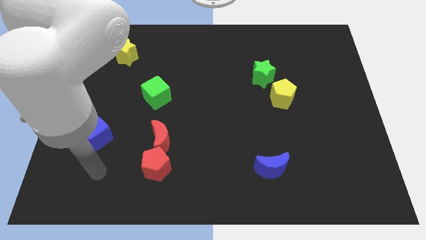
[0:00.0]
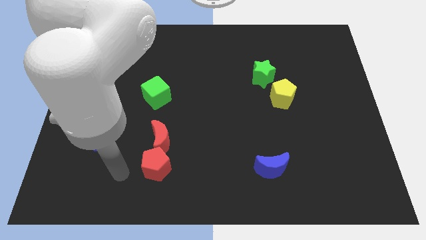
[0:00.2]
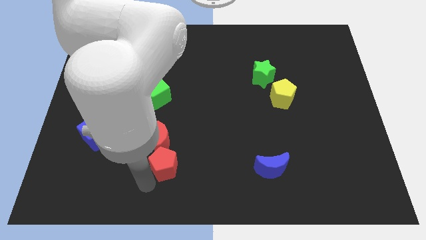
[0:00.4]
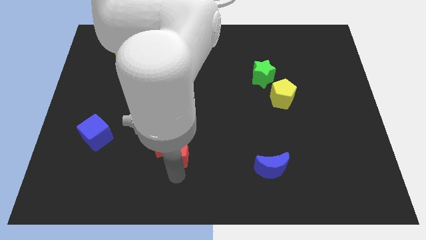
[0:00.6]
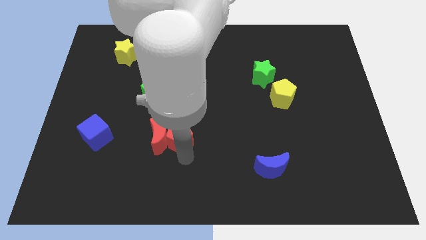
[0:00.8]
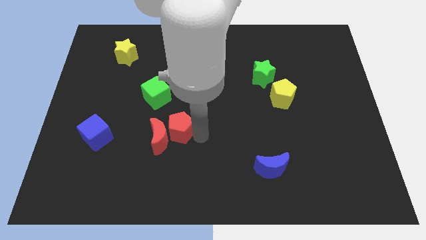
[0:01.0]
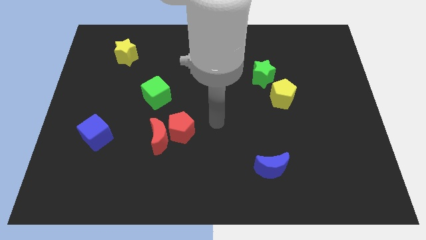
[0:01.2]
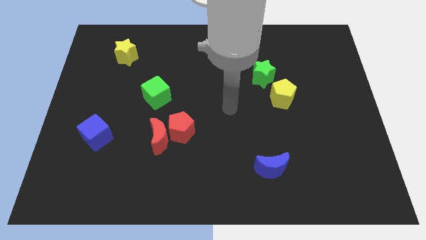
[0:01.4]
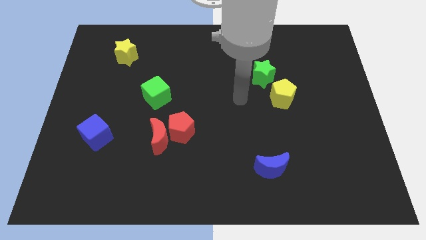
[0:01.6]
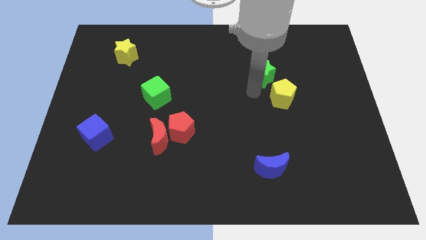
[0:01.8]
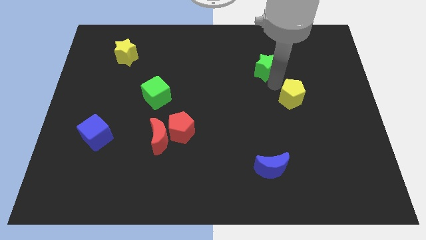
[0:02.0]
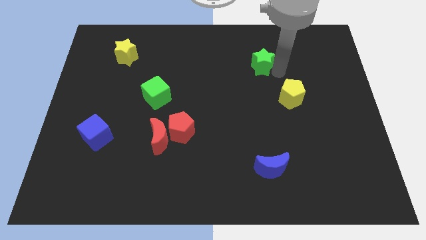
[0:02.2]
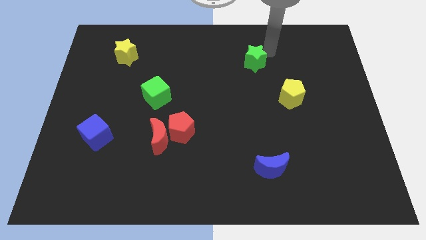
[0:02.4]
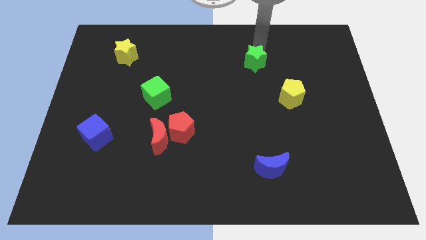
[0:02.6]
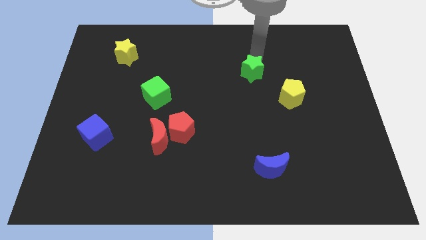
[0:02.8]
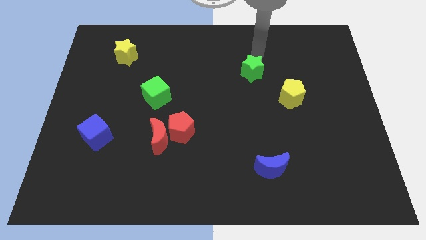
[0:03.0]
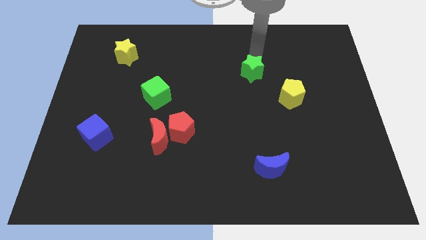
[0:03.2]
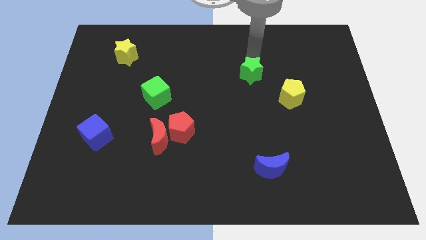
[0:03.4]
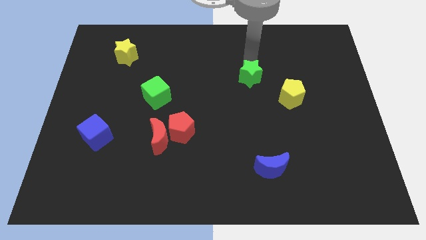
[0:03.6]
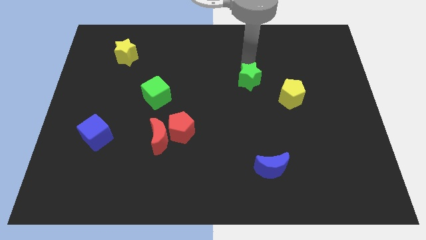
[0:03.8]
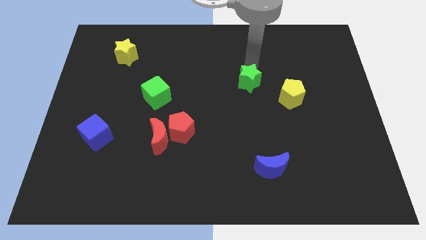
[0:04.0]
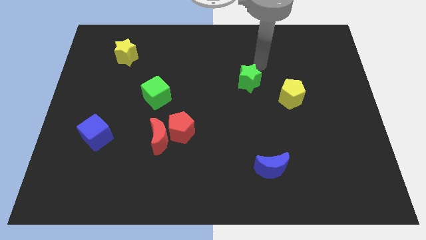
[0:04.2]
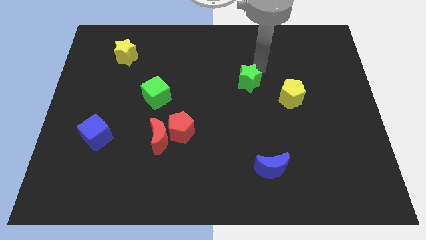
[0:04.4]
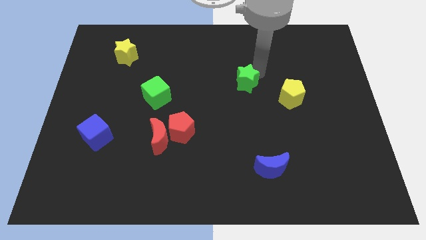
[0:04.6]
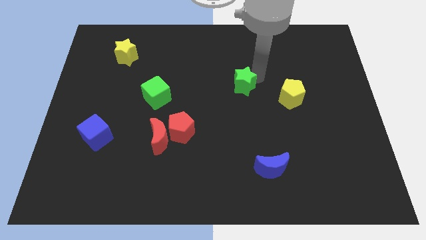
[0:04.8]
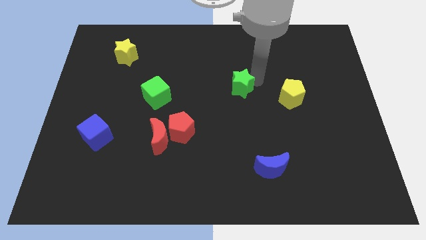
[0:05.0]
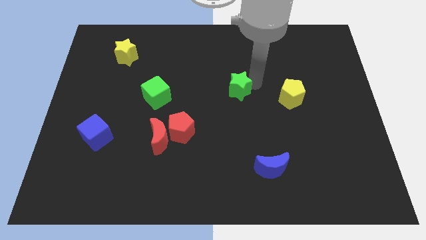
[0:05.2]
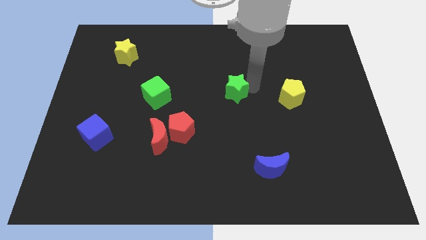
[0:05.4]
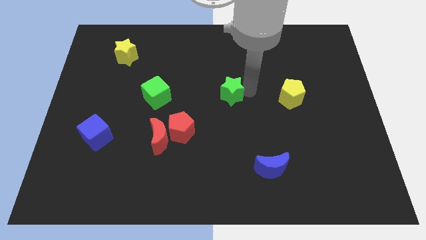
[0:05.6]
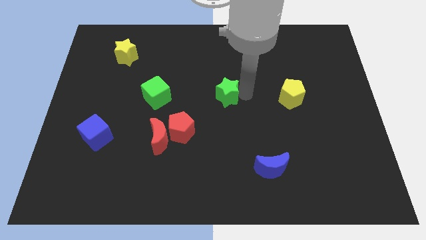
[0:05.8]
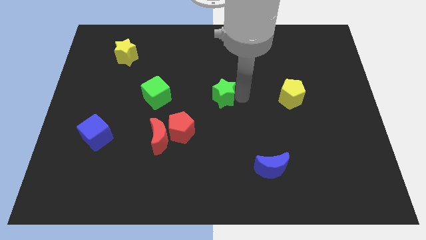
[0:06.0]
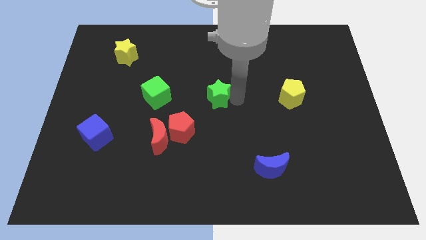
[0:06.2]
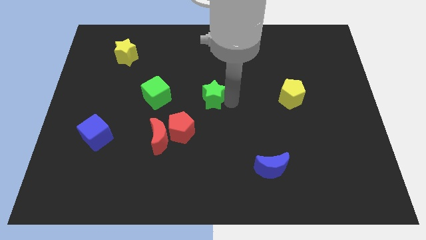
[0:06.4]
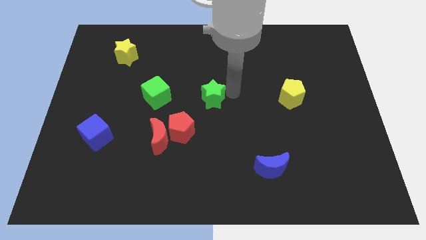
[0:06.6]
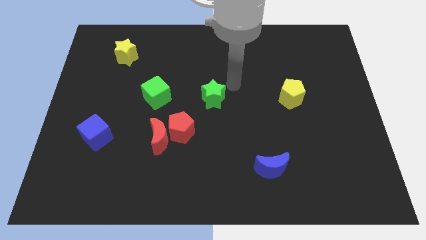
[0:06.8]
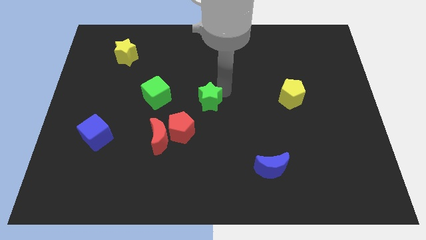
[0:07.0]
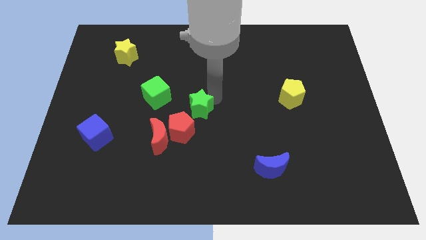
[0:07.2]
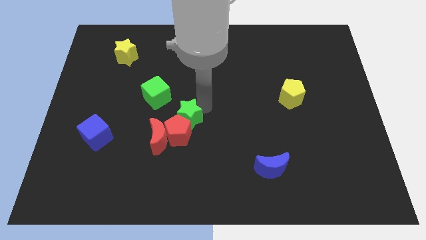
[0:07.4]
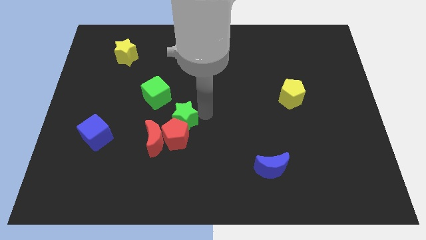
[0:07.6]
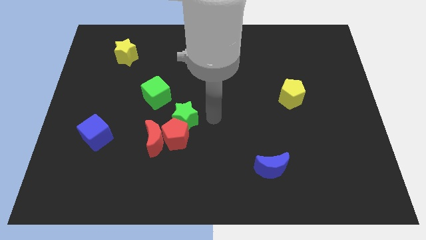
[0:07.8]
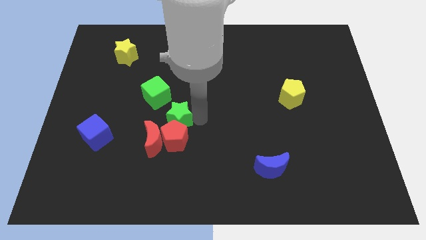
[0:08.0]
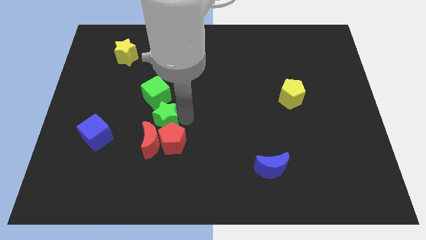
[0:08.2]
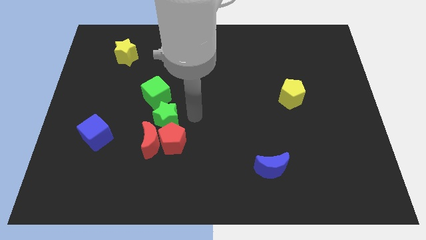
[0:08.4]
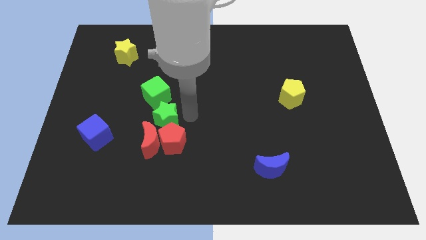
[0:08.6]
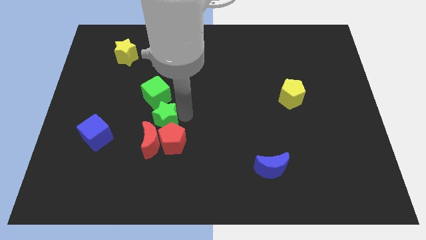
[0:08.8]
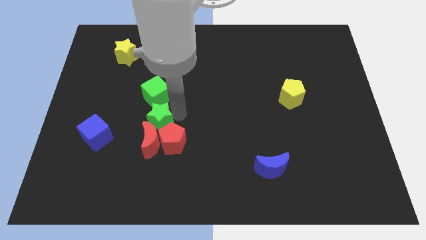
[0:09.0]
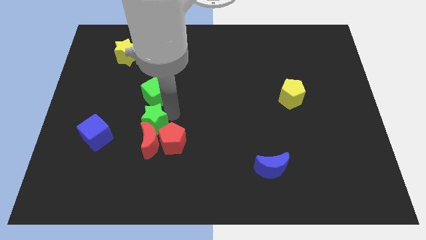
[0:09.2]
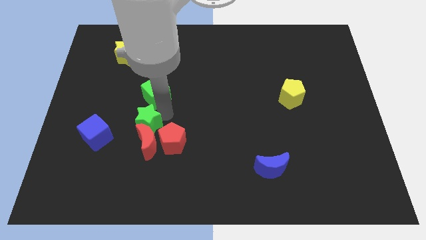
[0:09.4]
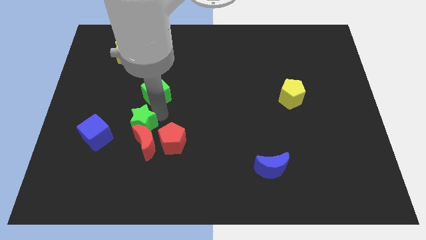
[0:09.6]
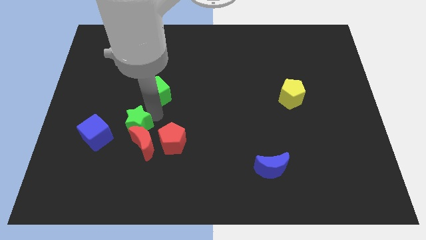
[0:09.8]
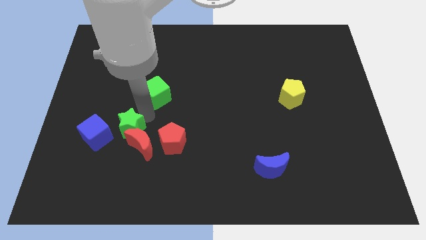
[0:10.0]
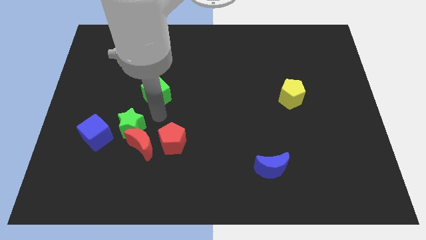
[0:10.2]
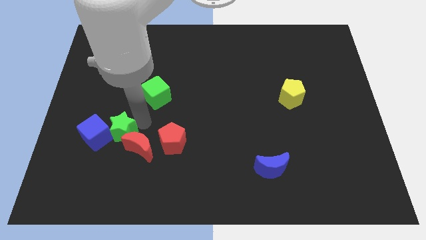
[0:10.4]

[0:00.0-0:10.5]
put the green star to the left side of the red moon

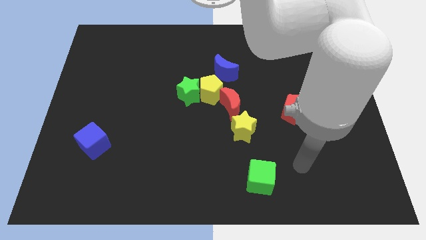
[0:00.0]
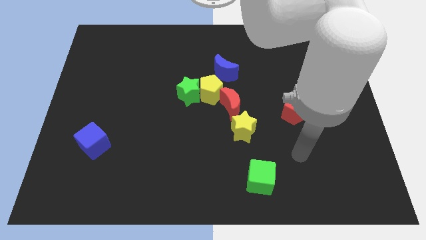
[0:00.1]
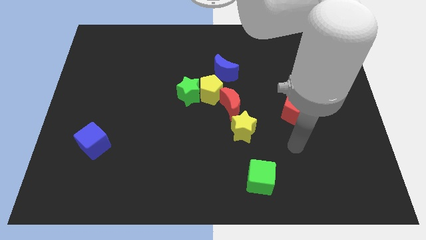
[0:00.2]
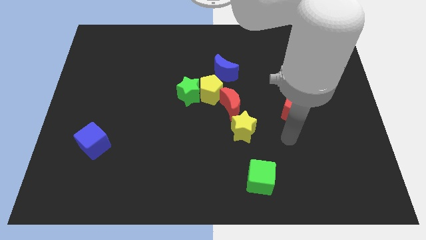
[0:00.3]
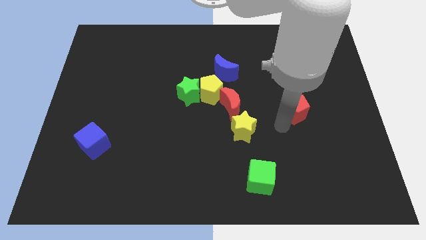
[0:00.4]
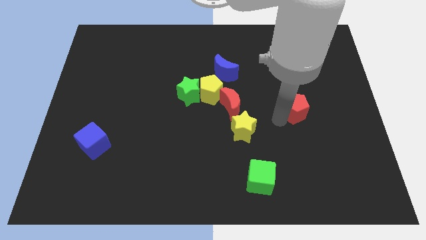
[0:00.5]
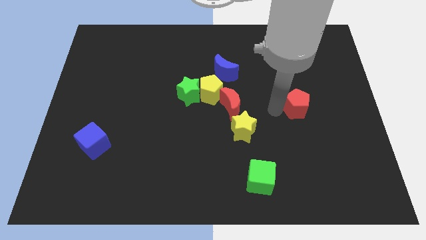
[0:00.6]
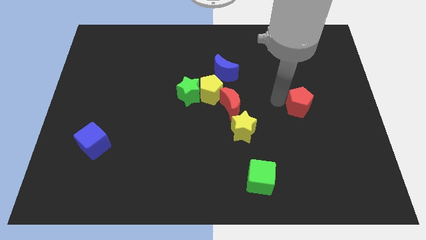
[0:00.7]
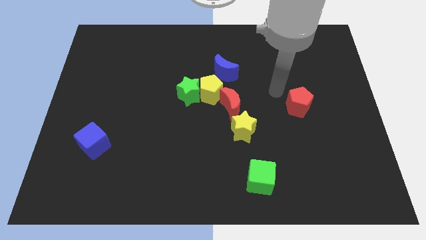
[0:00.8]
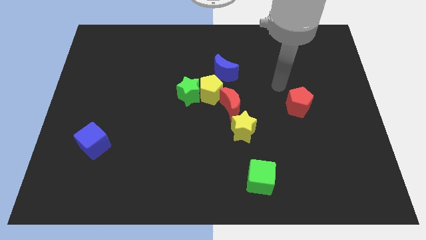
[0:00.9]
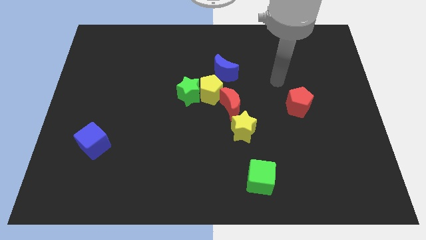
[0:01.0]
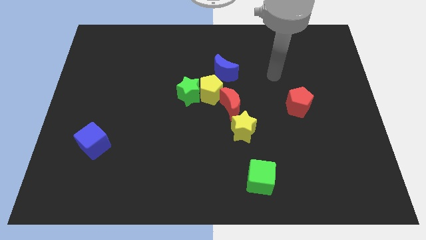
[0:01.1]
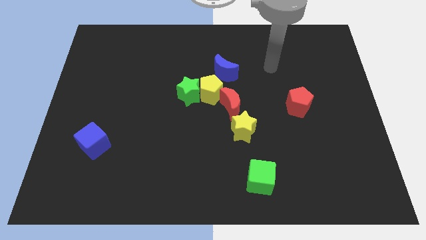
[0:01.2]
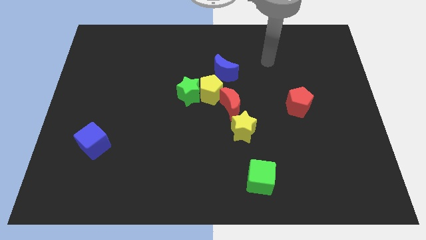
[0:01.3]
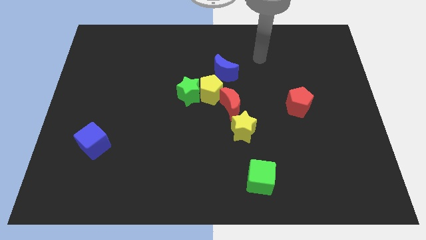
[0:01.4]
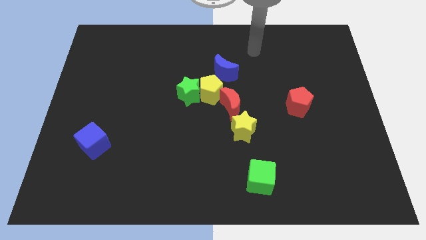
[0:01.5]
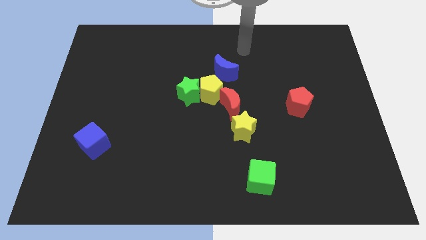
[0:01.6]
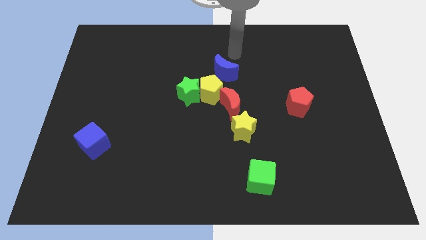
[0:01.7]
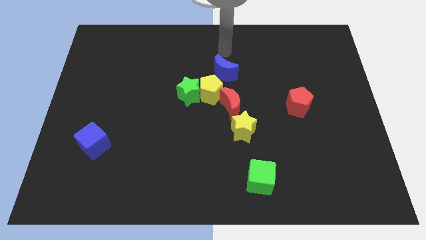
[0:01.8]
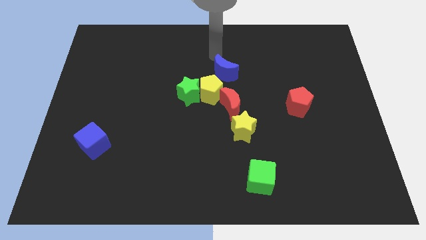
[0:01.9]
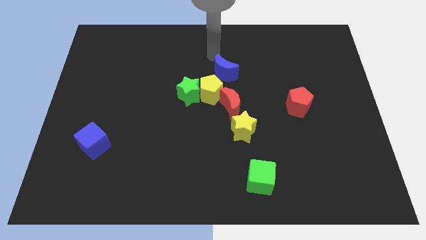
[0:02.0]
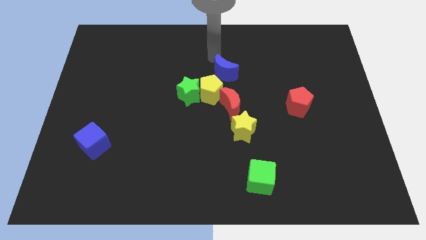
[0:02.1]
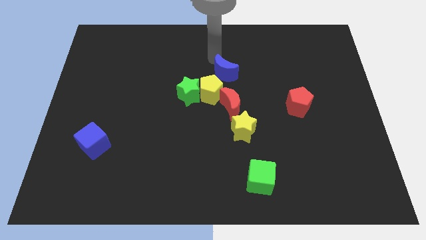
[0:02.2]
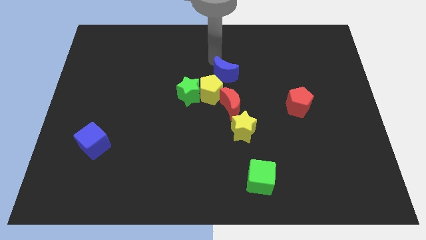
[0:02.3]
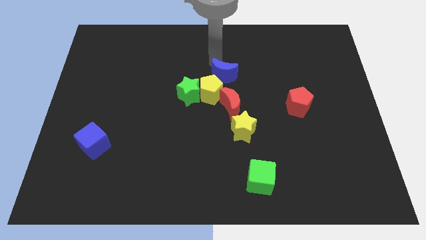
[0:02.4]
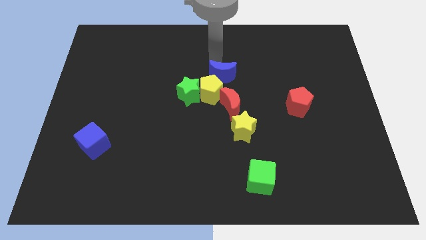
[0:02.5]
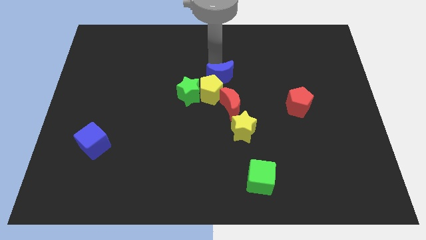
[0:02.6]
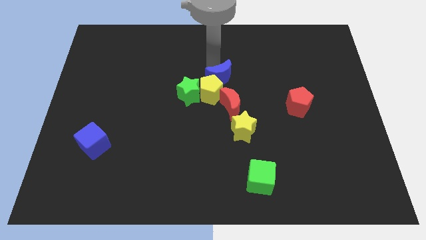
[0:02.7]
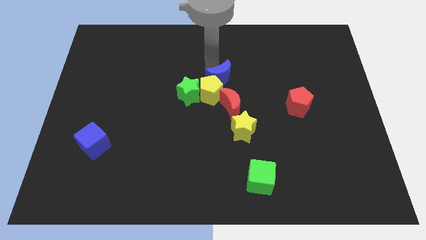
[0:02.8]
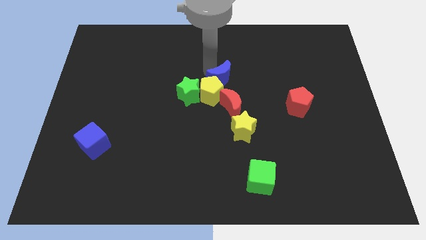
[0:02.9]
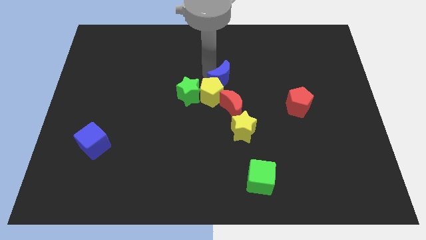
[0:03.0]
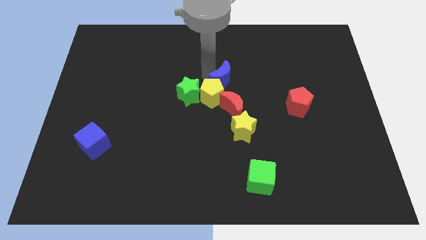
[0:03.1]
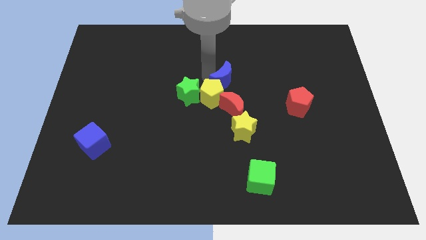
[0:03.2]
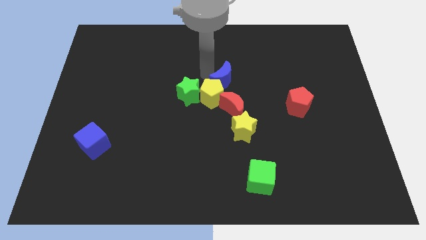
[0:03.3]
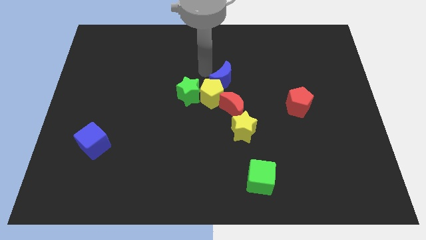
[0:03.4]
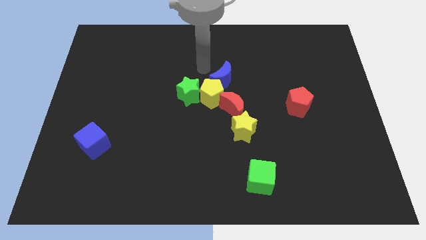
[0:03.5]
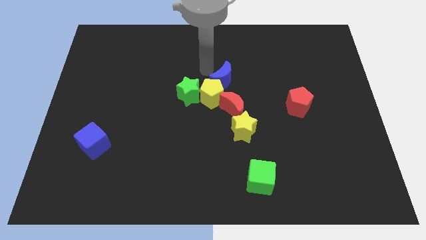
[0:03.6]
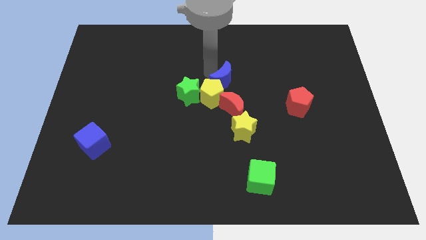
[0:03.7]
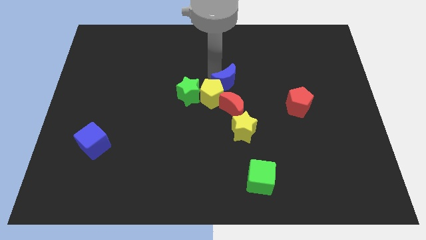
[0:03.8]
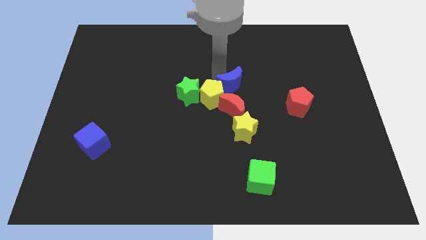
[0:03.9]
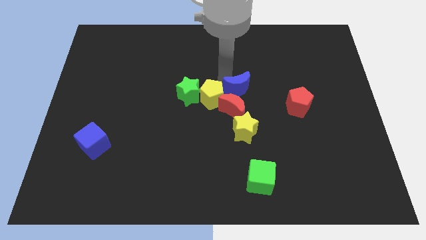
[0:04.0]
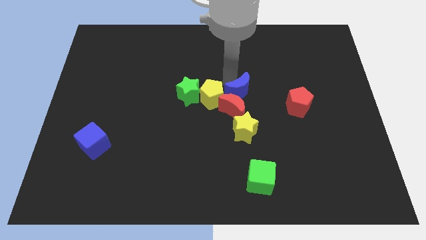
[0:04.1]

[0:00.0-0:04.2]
put the blue moon left of the red pentagon
